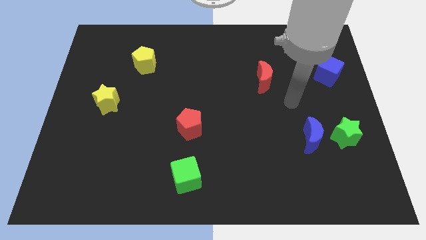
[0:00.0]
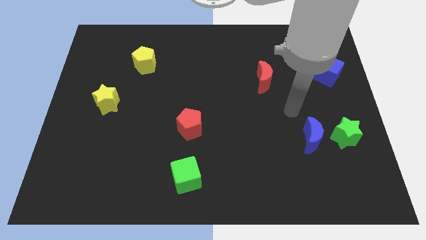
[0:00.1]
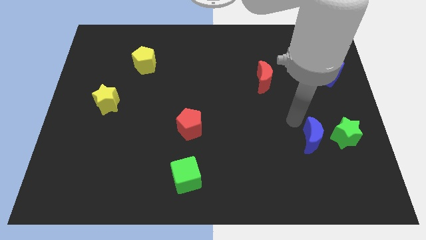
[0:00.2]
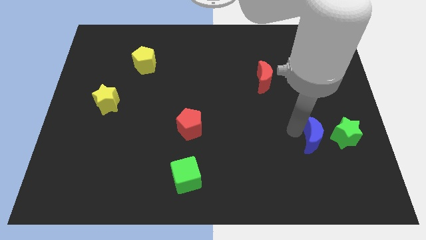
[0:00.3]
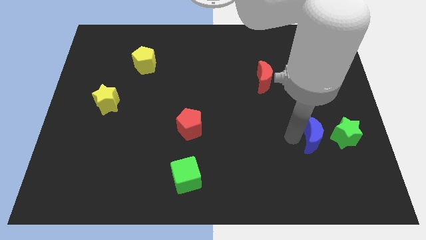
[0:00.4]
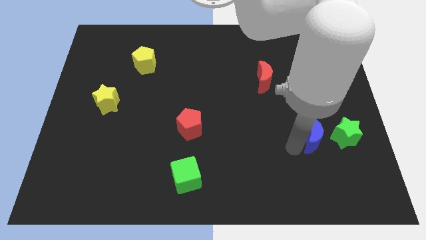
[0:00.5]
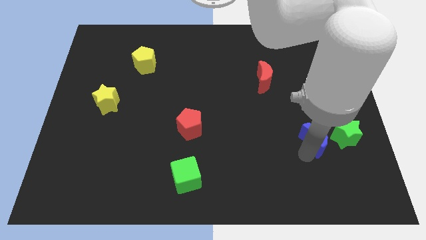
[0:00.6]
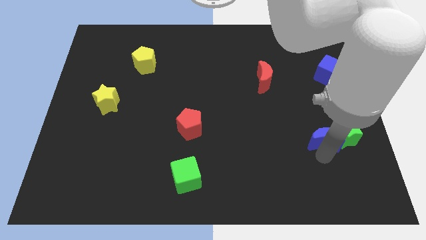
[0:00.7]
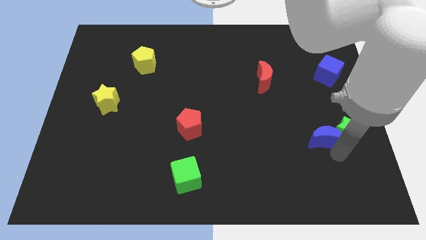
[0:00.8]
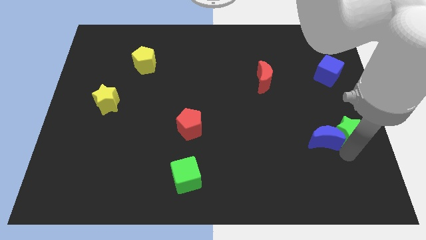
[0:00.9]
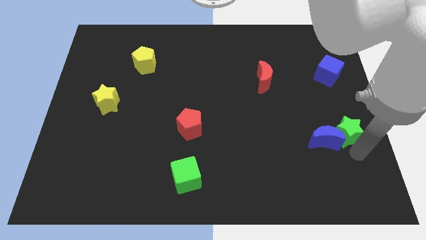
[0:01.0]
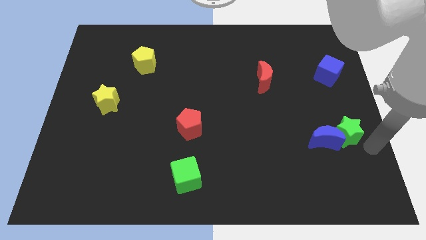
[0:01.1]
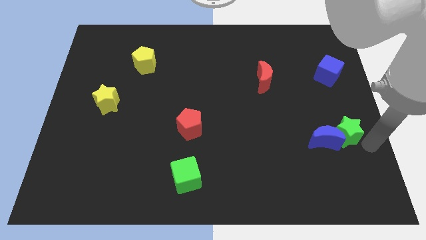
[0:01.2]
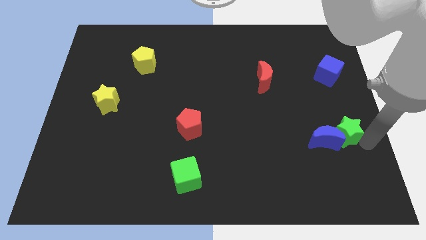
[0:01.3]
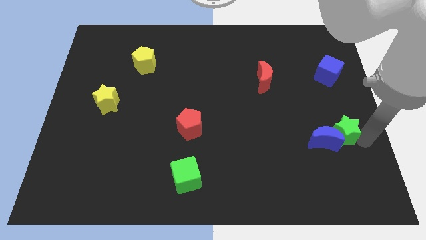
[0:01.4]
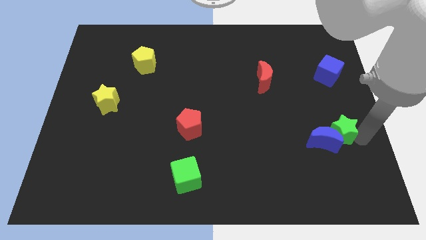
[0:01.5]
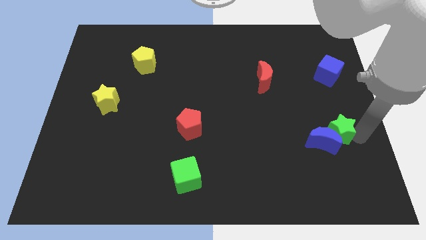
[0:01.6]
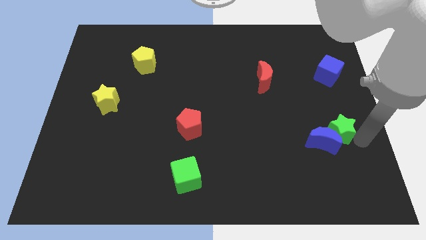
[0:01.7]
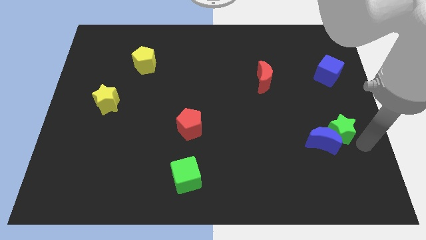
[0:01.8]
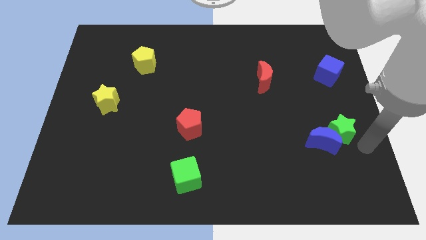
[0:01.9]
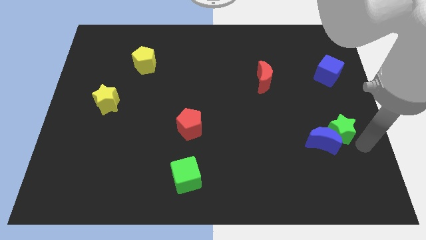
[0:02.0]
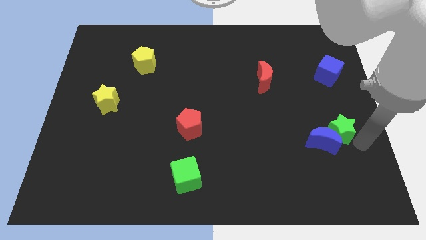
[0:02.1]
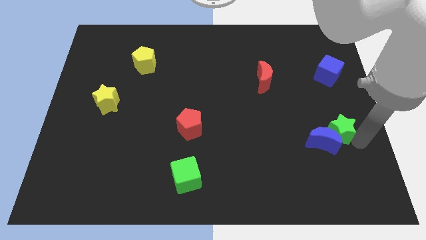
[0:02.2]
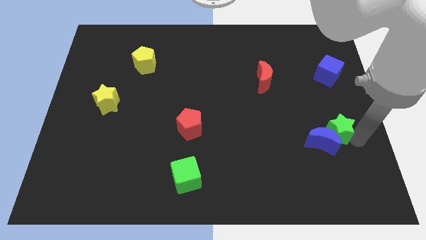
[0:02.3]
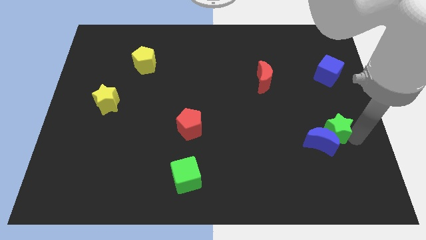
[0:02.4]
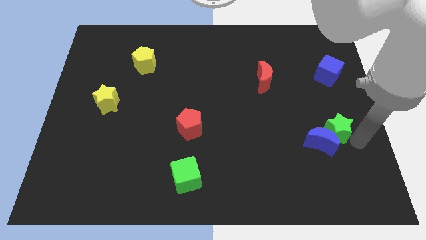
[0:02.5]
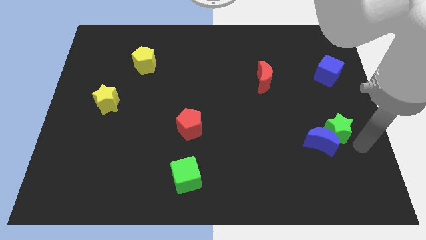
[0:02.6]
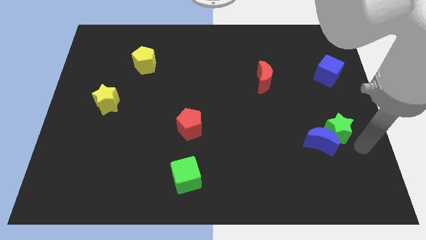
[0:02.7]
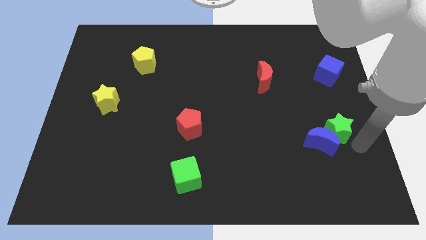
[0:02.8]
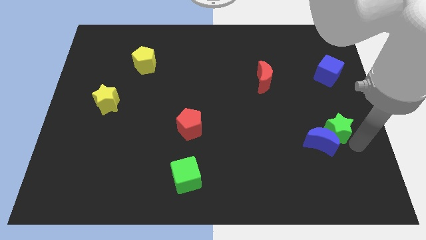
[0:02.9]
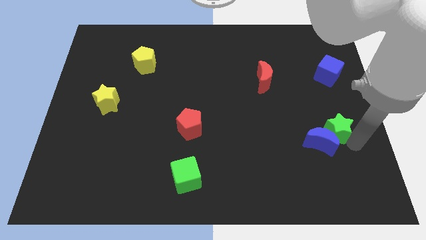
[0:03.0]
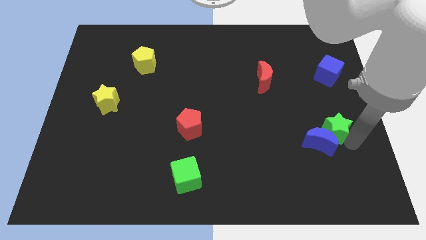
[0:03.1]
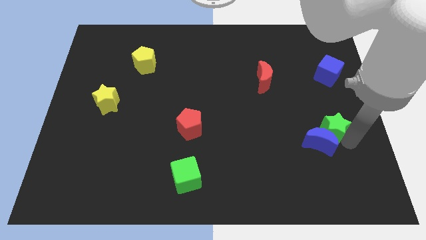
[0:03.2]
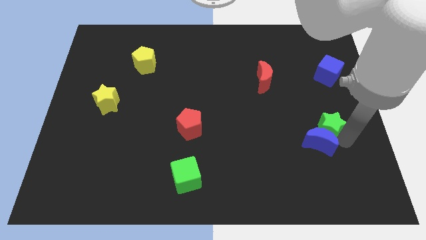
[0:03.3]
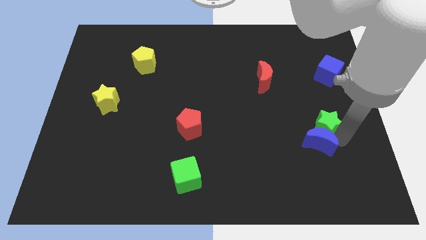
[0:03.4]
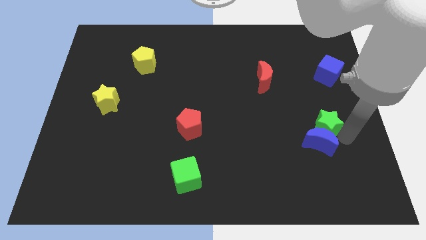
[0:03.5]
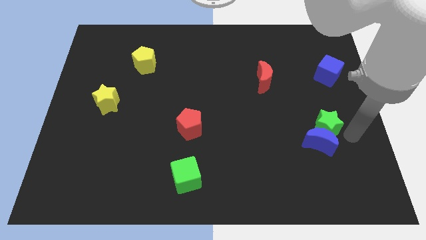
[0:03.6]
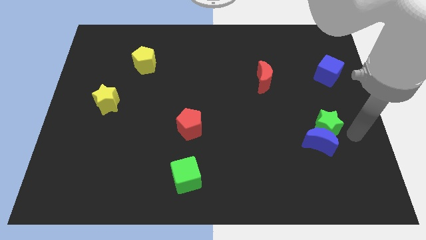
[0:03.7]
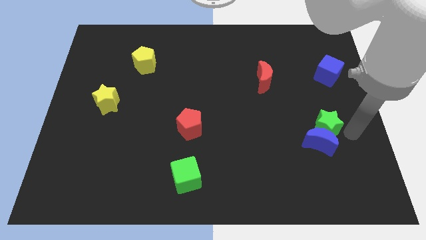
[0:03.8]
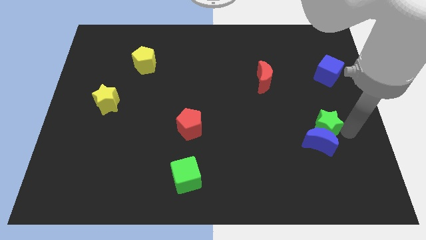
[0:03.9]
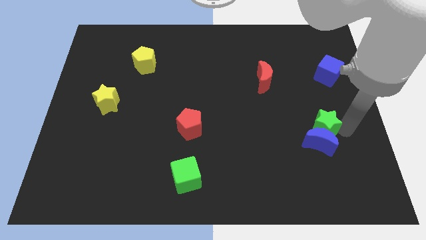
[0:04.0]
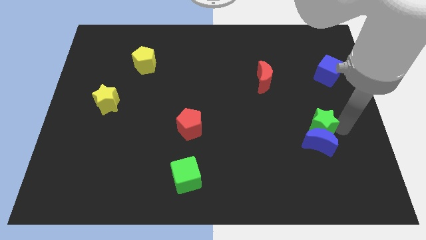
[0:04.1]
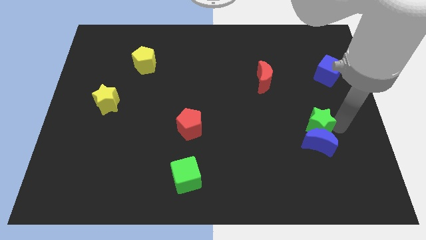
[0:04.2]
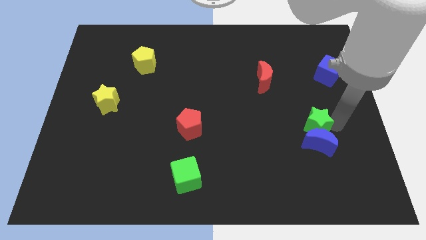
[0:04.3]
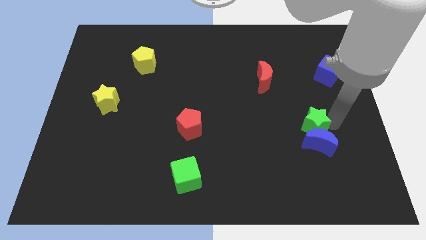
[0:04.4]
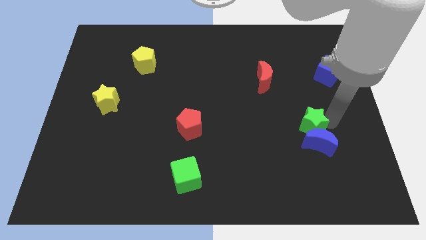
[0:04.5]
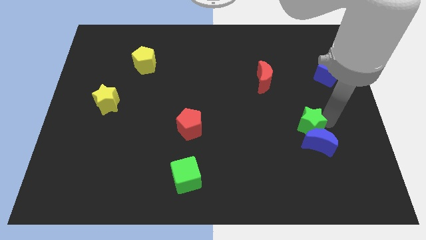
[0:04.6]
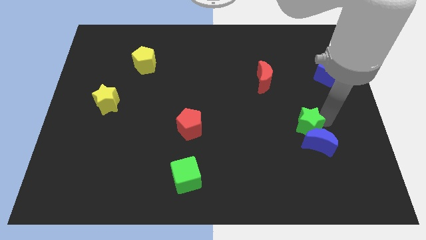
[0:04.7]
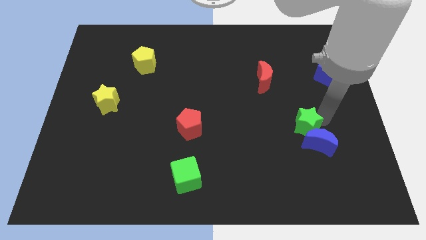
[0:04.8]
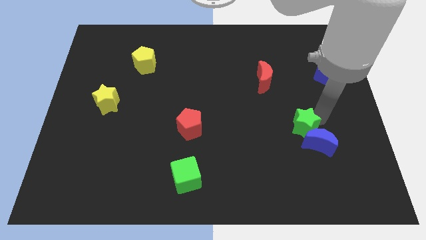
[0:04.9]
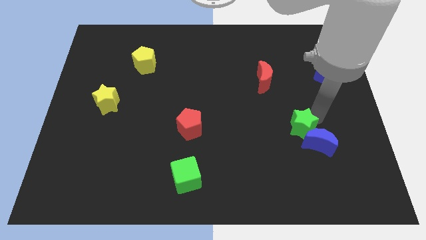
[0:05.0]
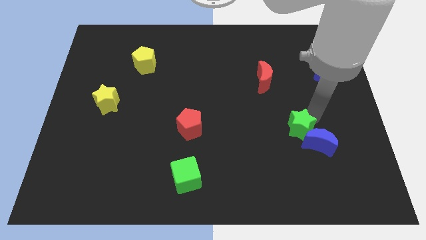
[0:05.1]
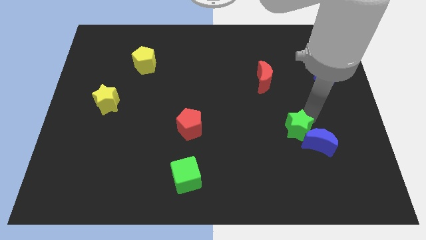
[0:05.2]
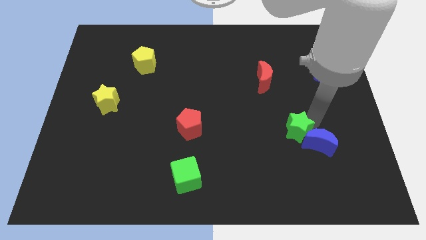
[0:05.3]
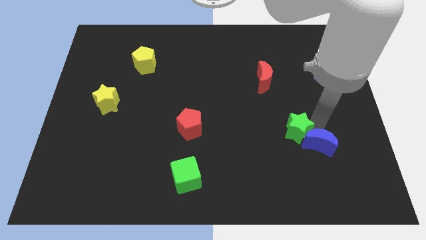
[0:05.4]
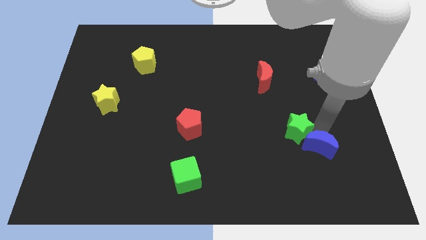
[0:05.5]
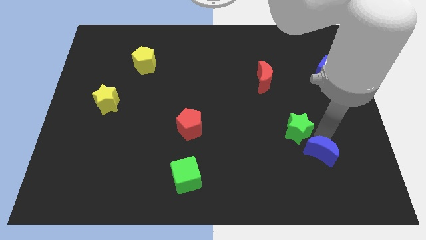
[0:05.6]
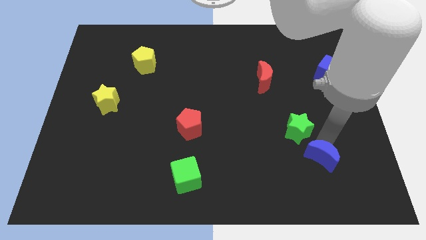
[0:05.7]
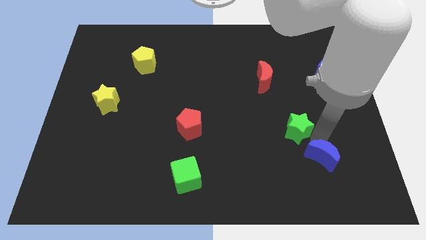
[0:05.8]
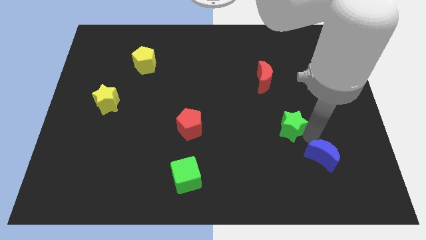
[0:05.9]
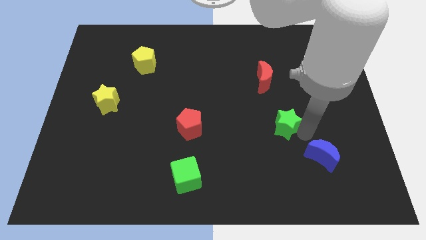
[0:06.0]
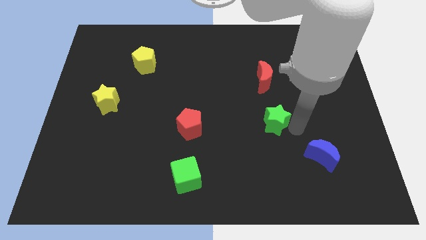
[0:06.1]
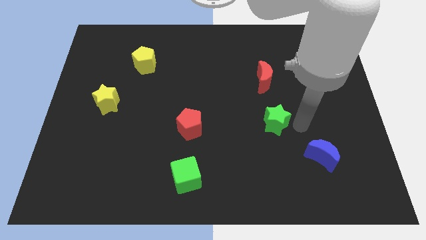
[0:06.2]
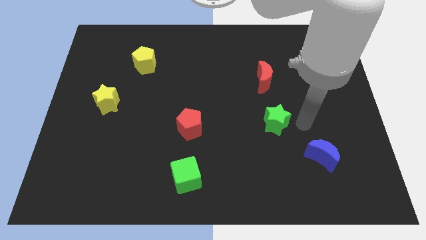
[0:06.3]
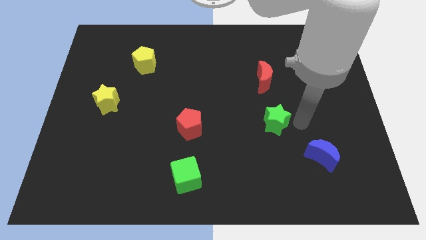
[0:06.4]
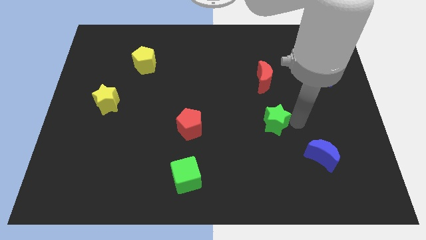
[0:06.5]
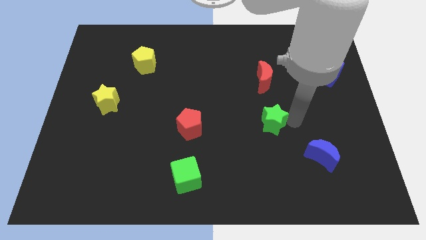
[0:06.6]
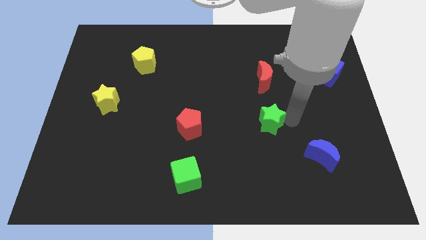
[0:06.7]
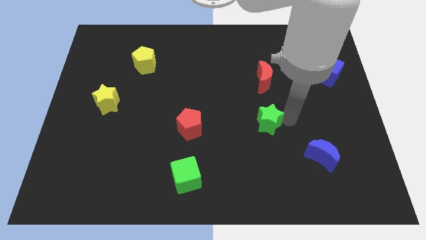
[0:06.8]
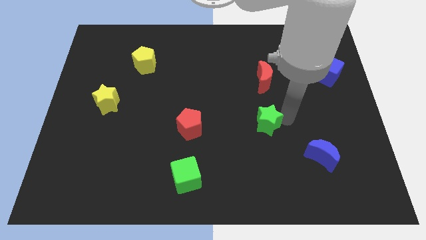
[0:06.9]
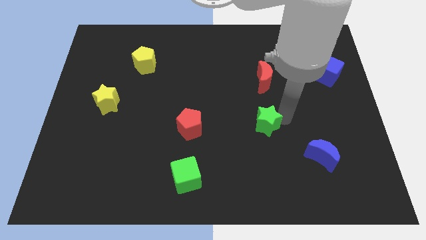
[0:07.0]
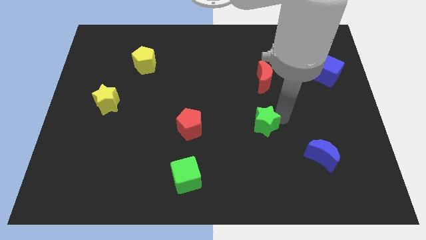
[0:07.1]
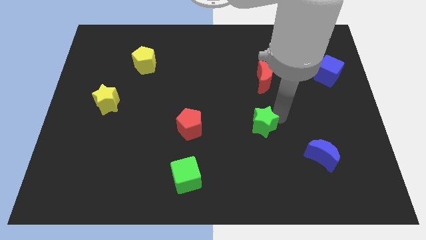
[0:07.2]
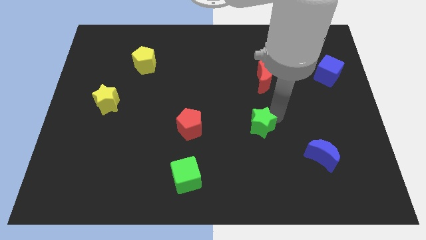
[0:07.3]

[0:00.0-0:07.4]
put the green star just right of the red pentagon
